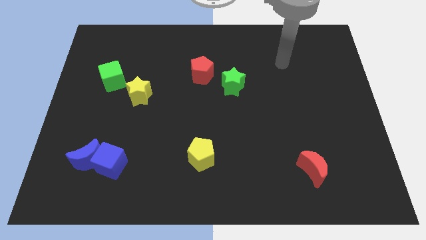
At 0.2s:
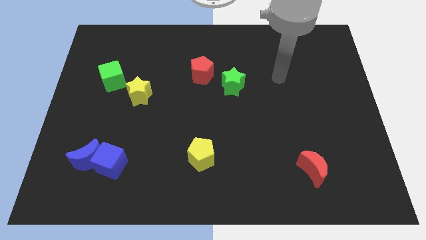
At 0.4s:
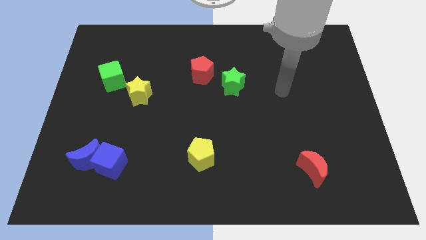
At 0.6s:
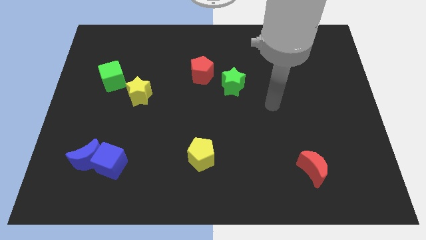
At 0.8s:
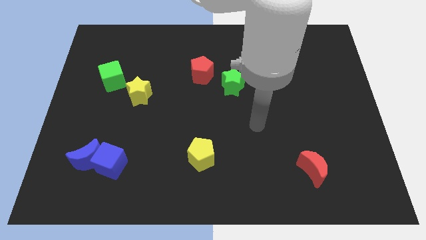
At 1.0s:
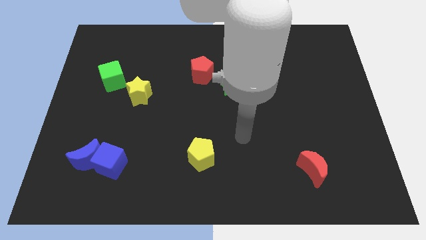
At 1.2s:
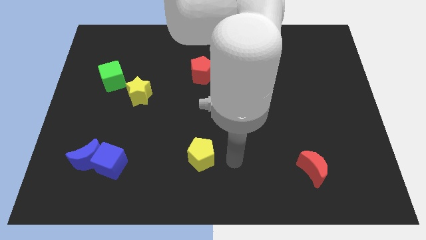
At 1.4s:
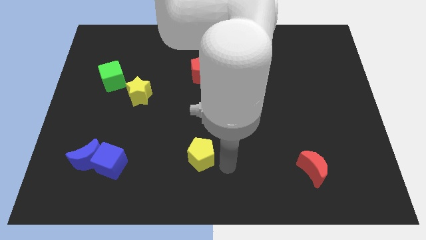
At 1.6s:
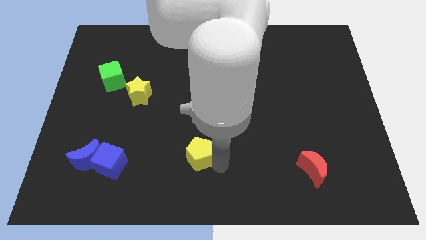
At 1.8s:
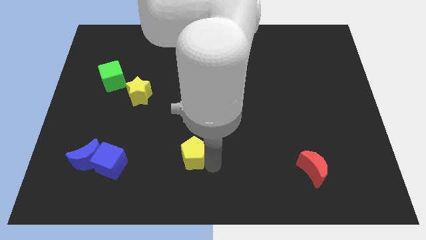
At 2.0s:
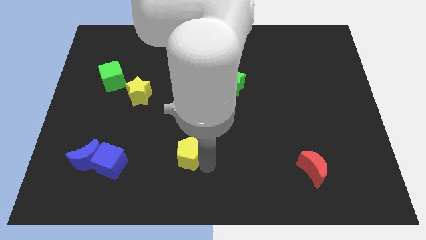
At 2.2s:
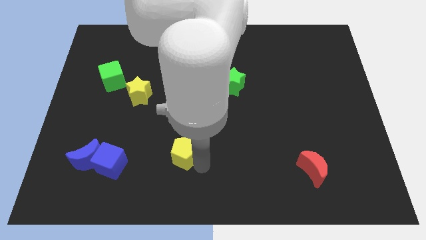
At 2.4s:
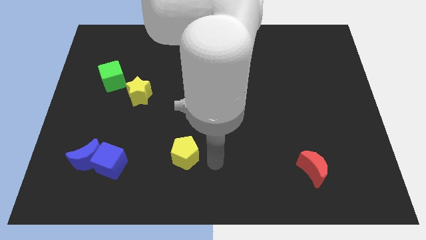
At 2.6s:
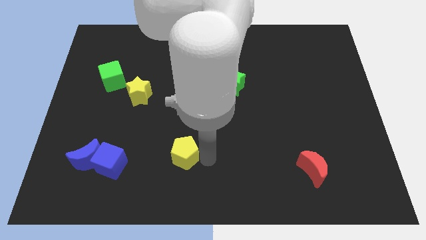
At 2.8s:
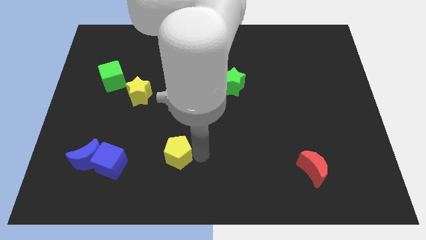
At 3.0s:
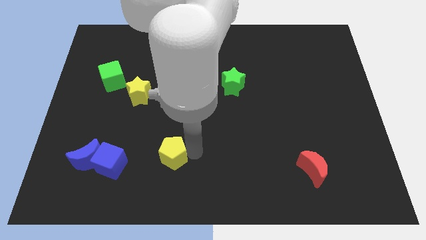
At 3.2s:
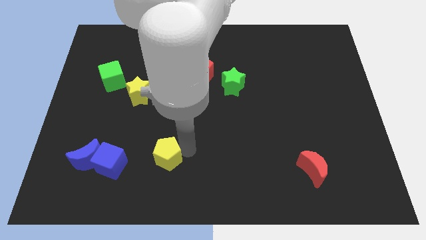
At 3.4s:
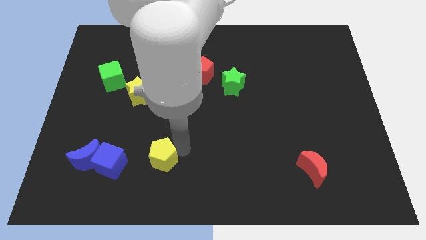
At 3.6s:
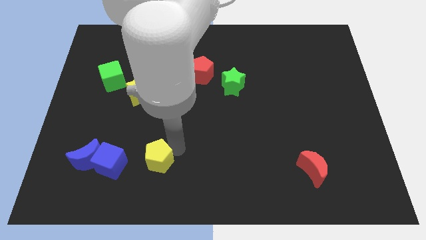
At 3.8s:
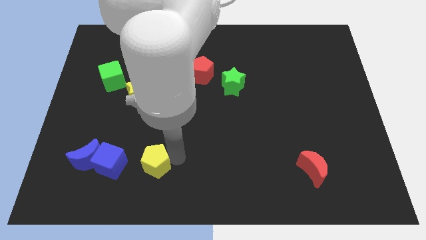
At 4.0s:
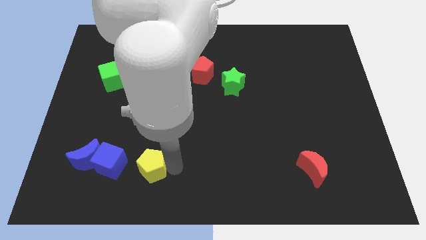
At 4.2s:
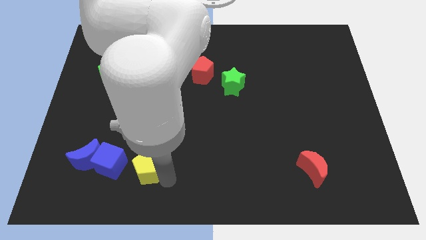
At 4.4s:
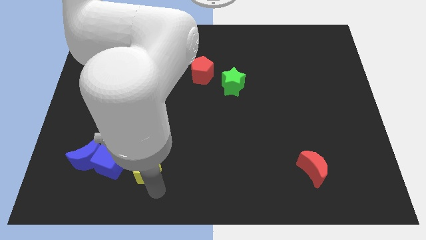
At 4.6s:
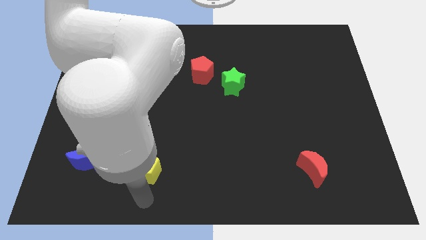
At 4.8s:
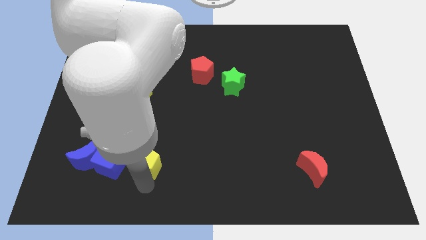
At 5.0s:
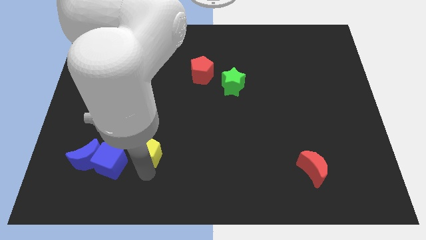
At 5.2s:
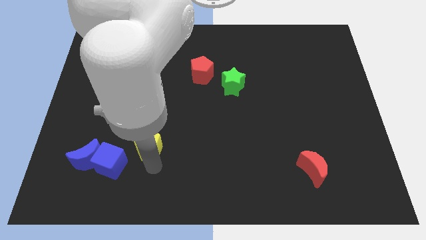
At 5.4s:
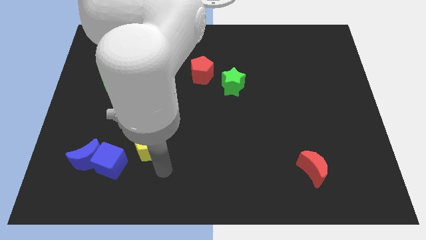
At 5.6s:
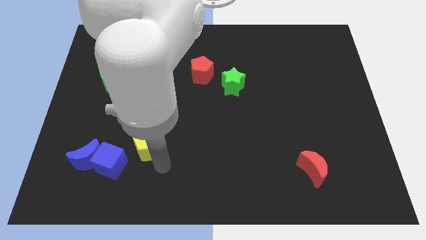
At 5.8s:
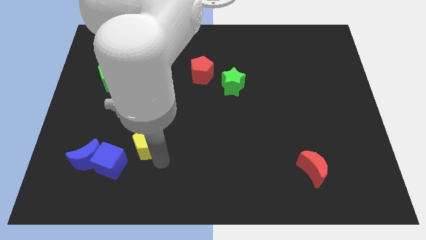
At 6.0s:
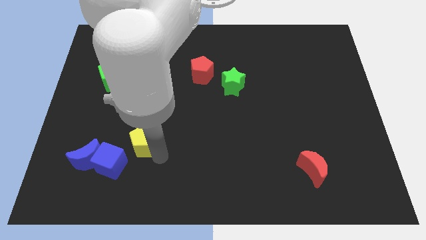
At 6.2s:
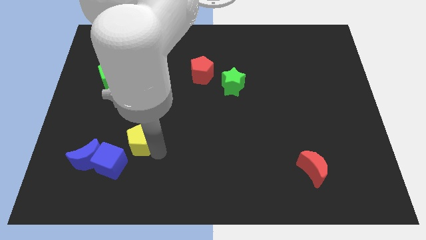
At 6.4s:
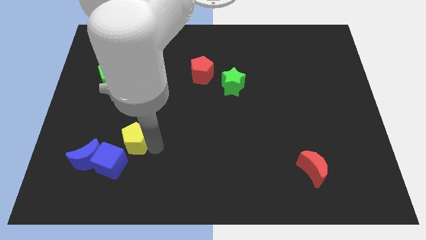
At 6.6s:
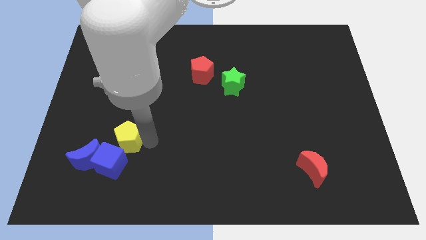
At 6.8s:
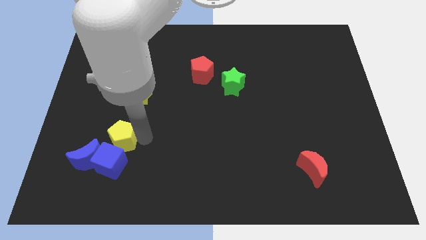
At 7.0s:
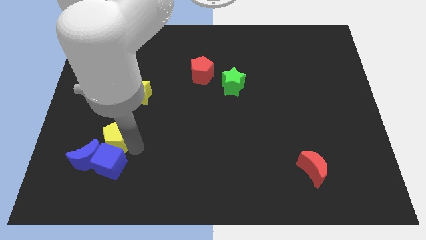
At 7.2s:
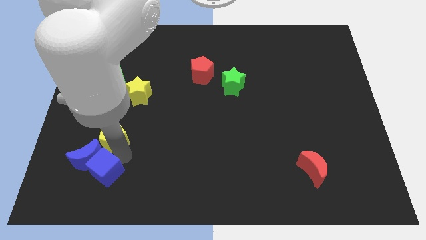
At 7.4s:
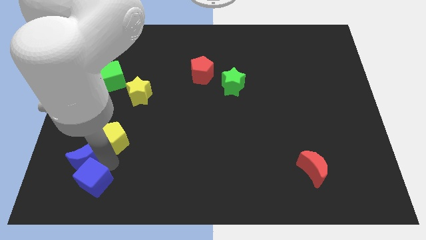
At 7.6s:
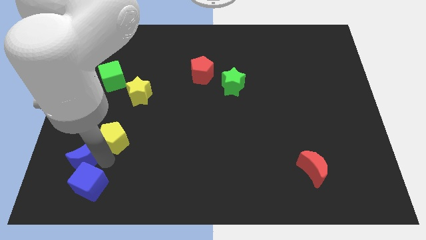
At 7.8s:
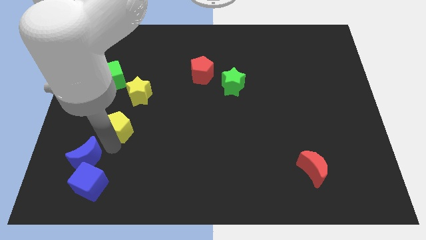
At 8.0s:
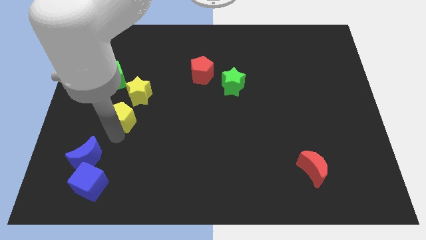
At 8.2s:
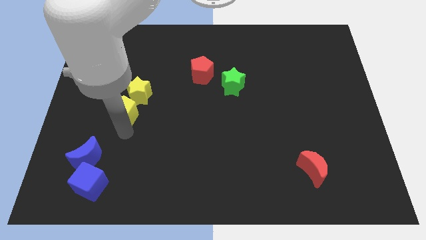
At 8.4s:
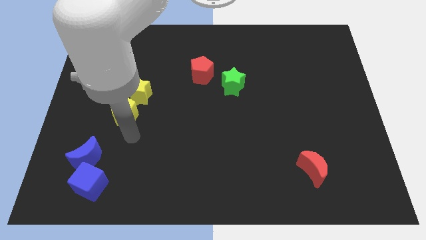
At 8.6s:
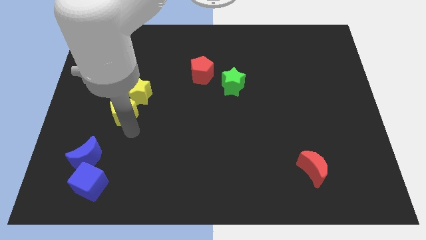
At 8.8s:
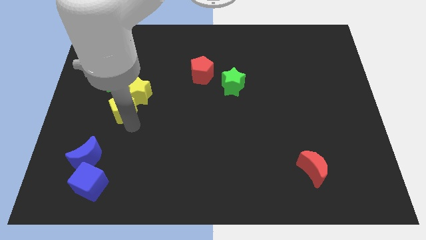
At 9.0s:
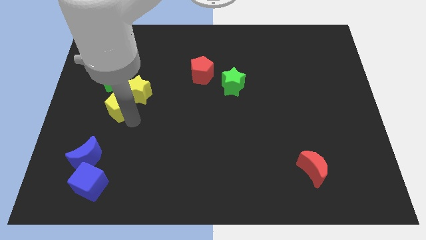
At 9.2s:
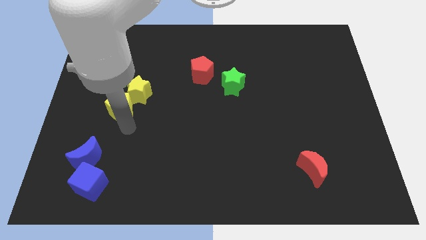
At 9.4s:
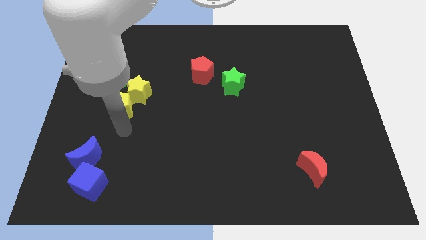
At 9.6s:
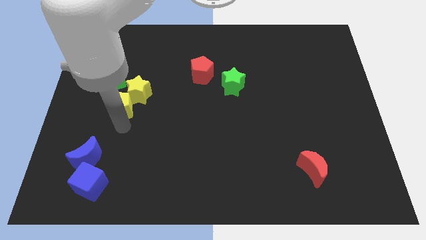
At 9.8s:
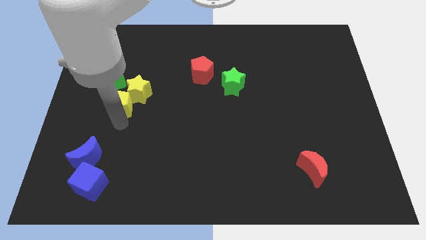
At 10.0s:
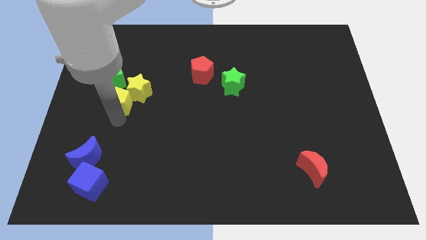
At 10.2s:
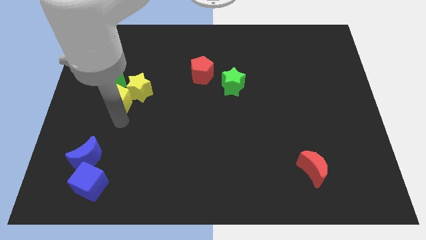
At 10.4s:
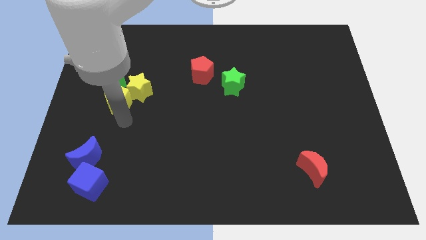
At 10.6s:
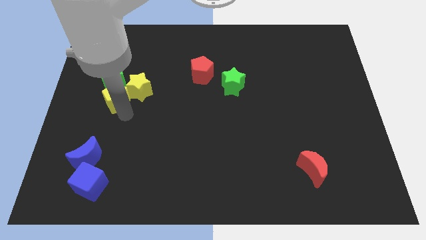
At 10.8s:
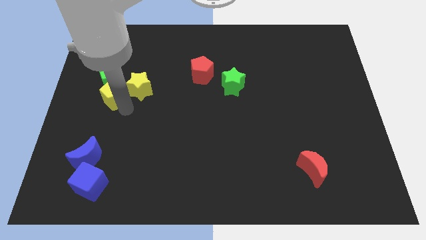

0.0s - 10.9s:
put the yellow pentagon to the green cube

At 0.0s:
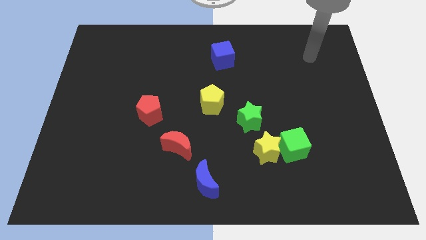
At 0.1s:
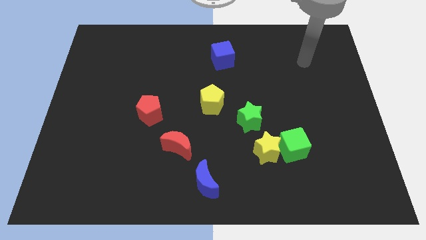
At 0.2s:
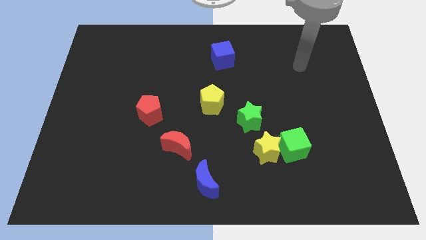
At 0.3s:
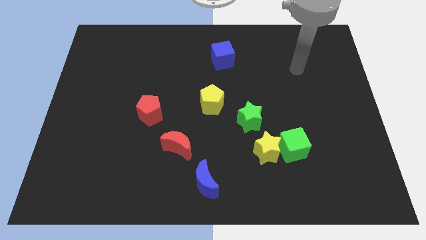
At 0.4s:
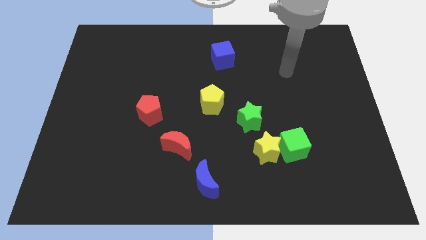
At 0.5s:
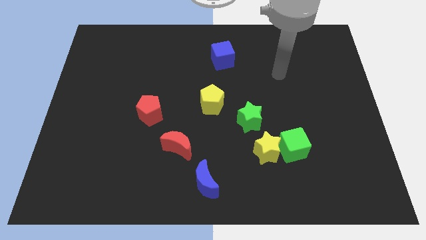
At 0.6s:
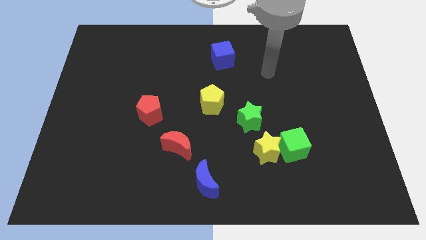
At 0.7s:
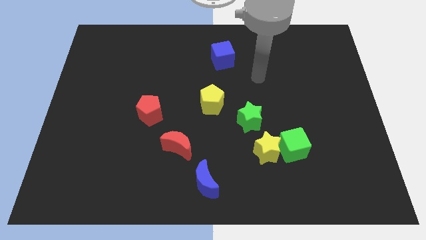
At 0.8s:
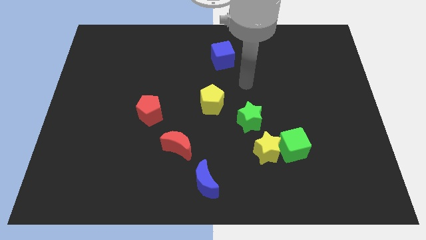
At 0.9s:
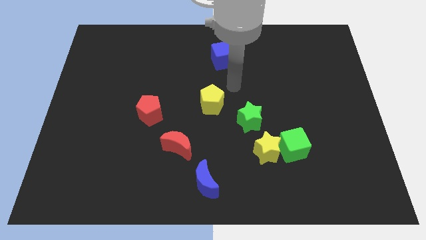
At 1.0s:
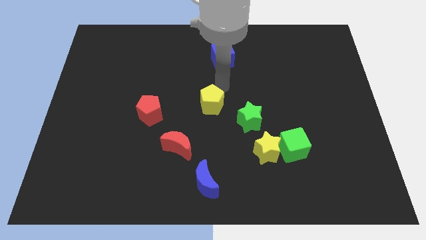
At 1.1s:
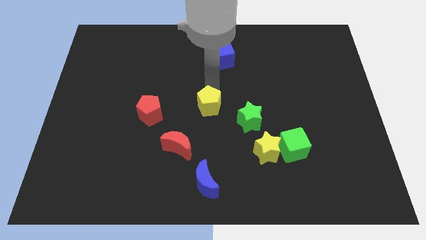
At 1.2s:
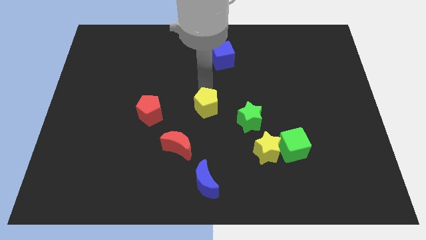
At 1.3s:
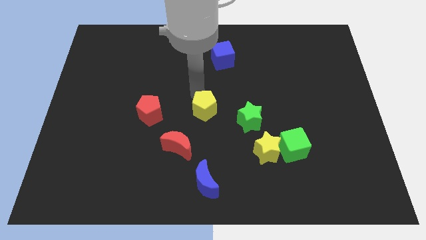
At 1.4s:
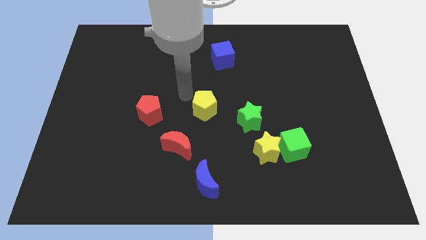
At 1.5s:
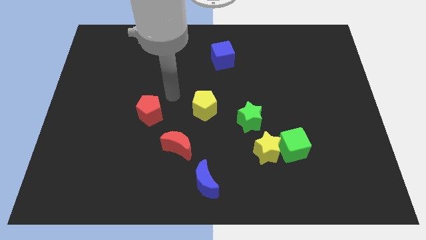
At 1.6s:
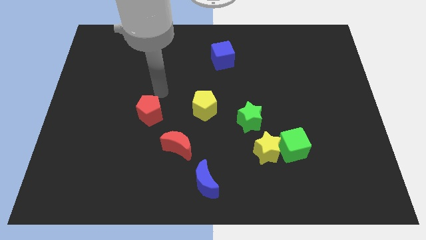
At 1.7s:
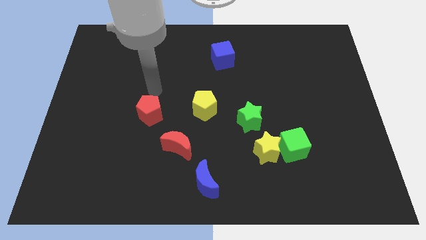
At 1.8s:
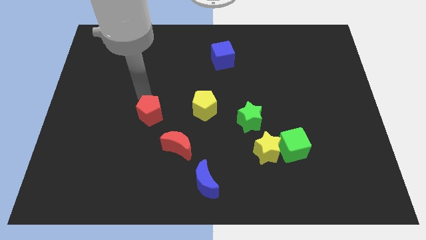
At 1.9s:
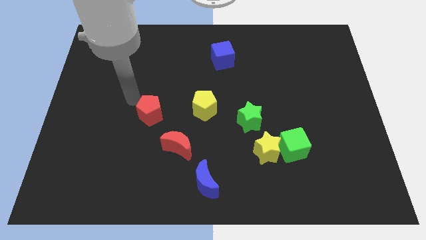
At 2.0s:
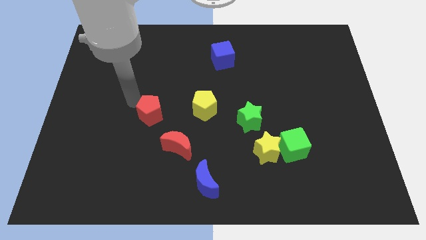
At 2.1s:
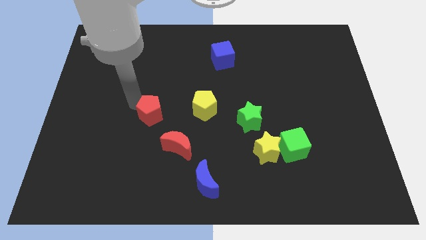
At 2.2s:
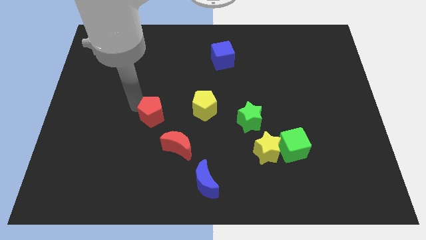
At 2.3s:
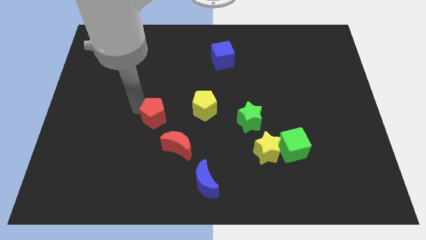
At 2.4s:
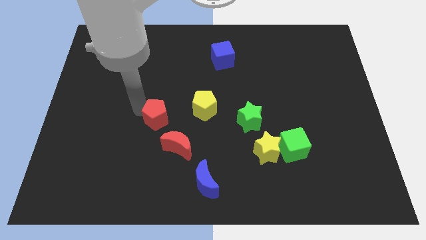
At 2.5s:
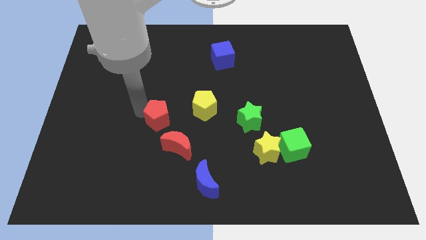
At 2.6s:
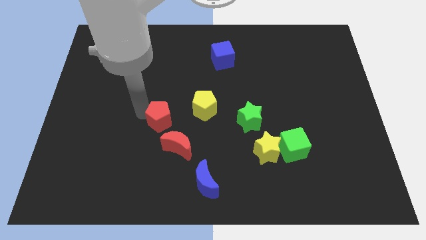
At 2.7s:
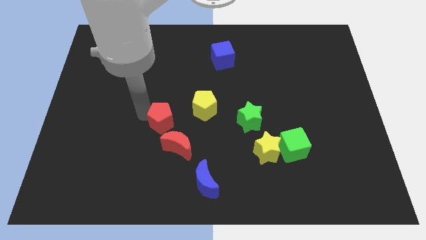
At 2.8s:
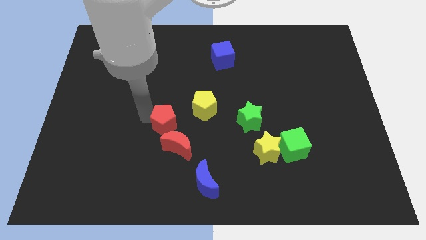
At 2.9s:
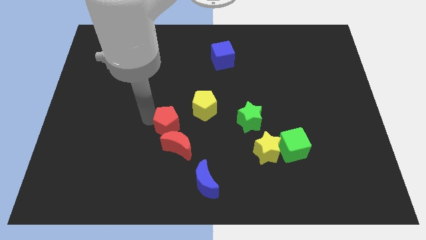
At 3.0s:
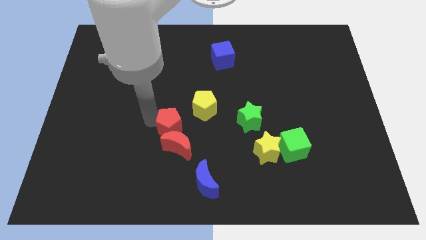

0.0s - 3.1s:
move the red pentagon close to the red moon

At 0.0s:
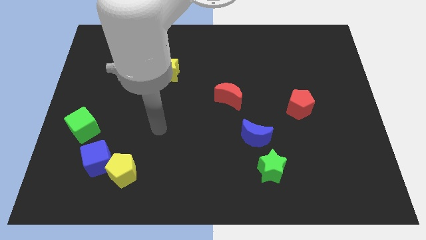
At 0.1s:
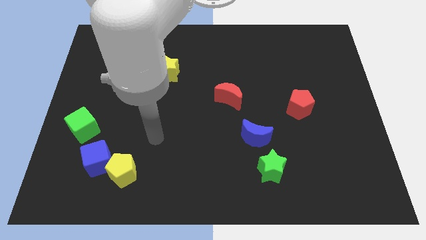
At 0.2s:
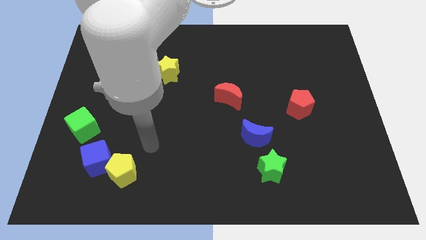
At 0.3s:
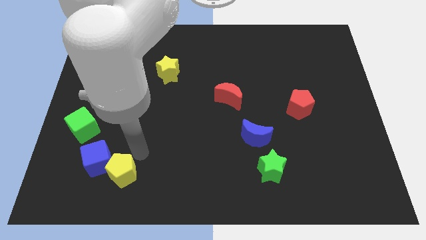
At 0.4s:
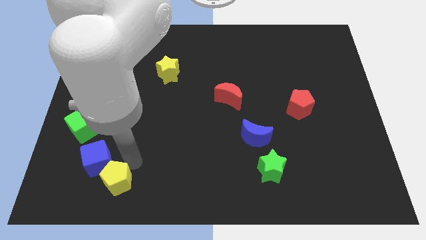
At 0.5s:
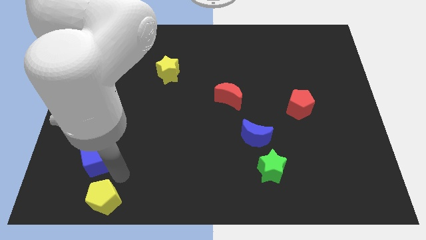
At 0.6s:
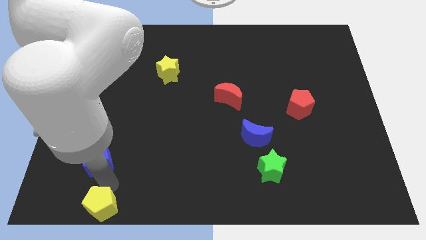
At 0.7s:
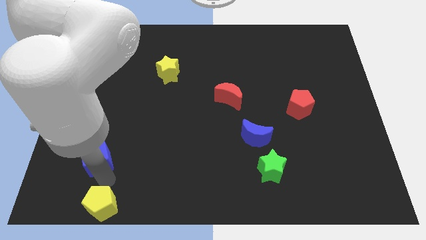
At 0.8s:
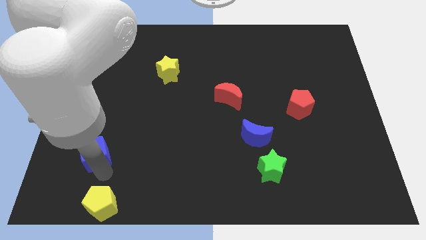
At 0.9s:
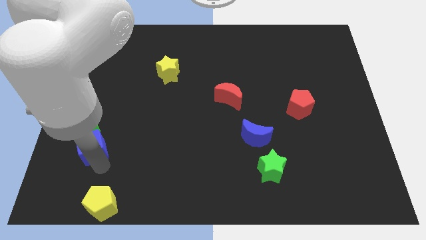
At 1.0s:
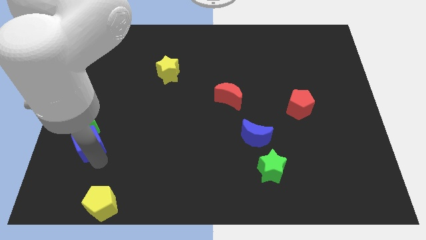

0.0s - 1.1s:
push the blue cube to the green cube
